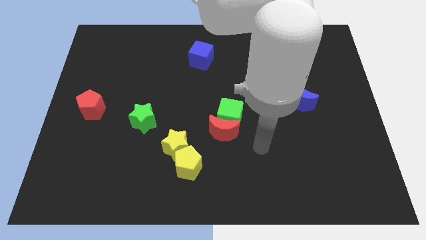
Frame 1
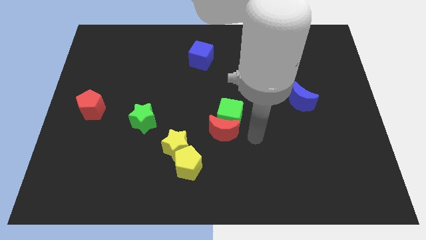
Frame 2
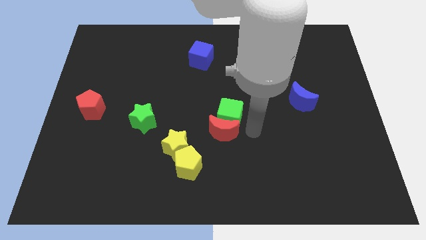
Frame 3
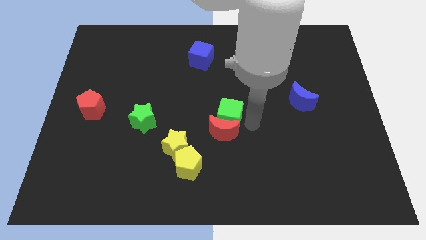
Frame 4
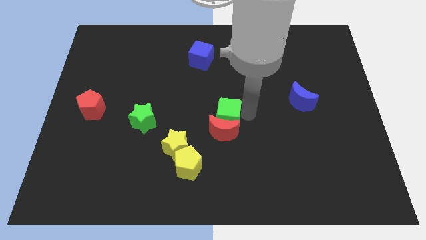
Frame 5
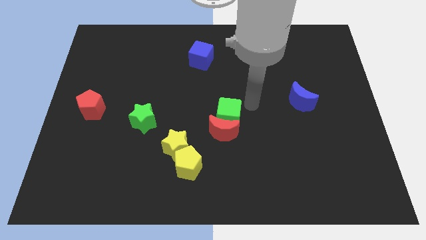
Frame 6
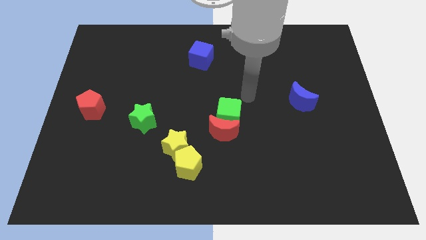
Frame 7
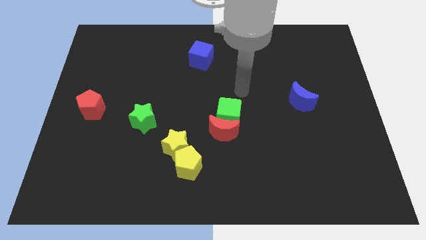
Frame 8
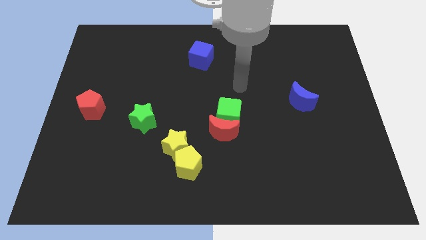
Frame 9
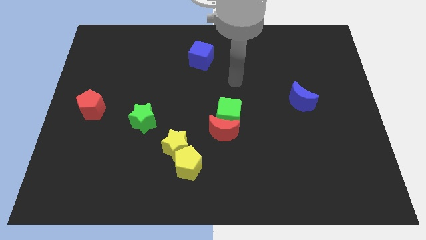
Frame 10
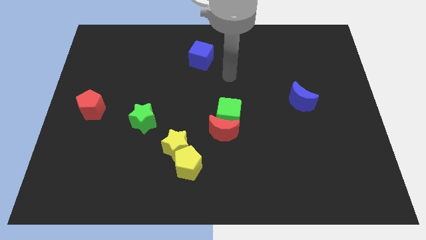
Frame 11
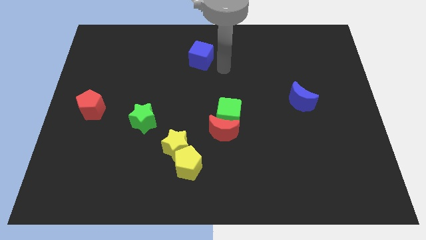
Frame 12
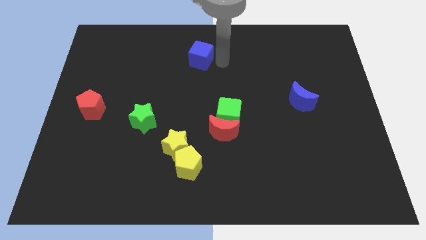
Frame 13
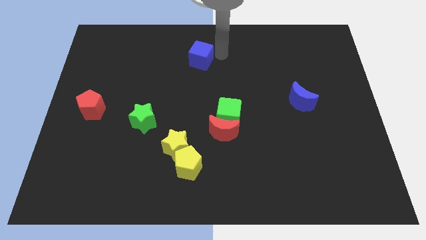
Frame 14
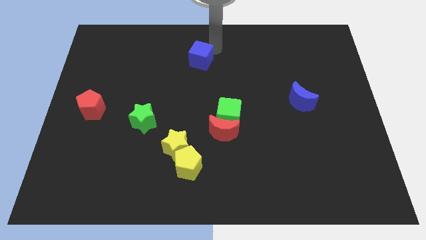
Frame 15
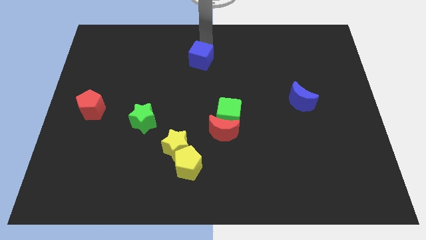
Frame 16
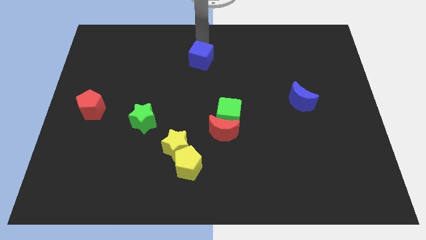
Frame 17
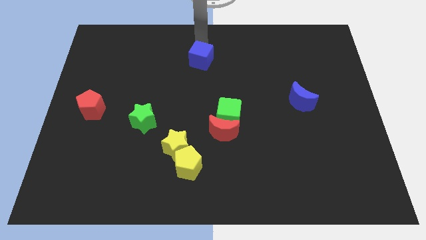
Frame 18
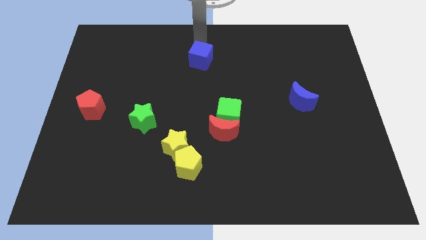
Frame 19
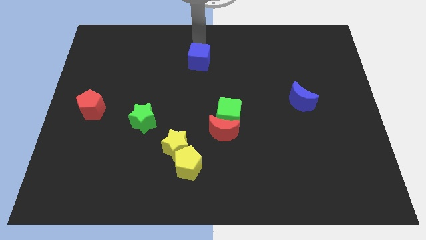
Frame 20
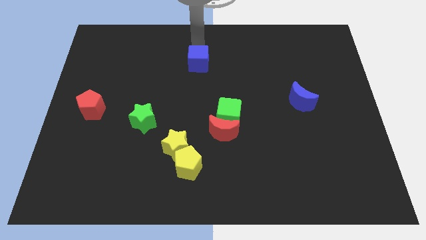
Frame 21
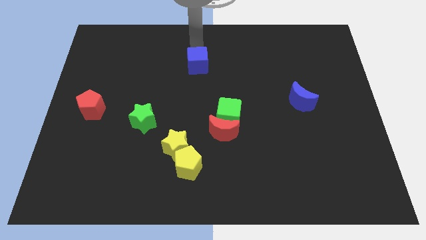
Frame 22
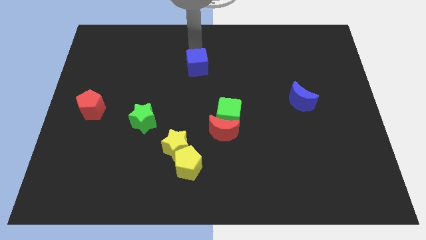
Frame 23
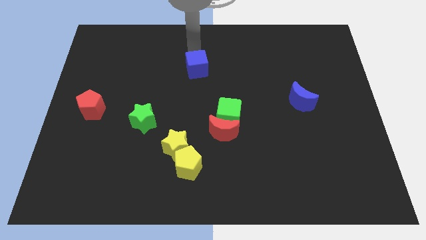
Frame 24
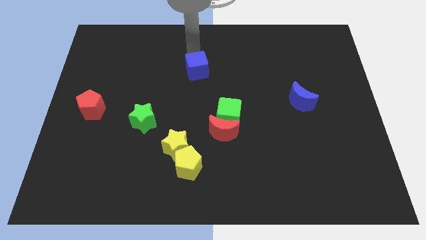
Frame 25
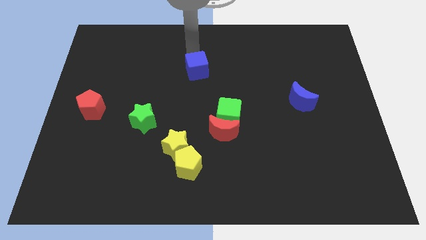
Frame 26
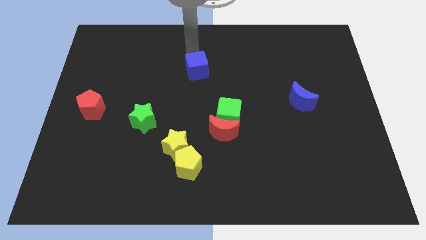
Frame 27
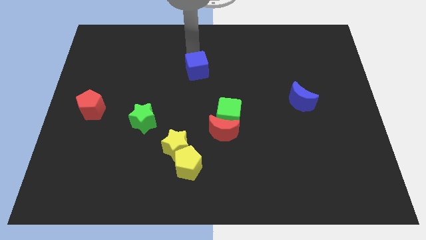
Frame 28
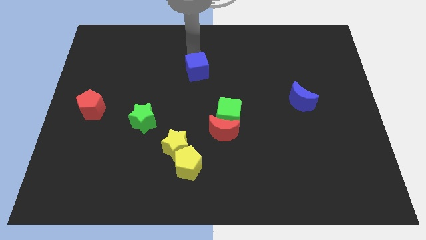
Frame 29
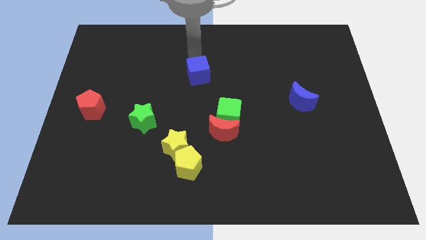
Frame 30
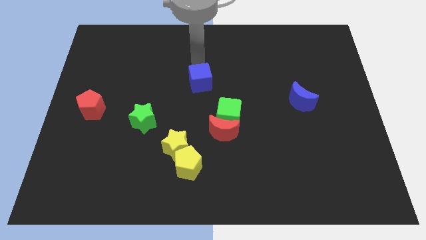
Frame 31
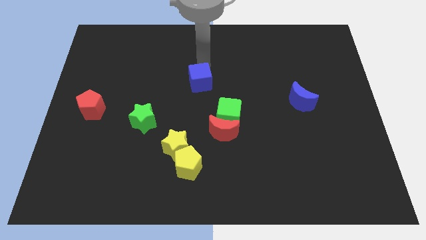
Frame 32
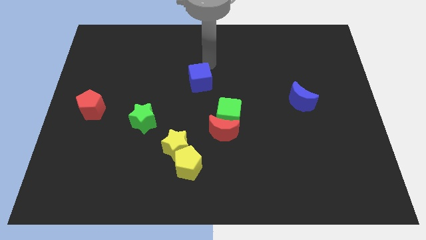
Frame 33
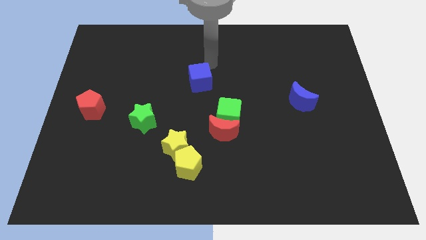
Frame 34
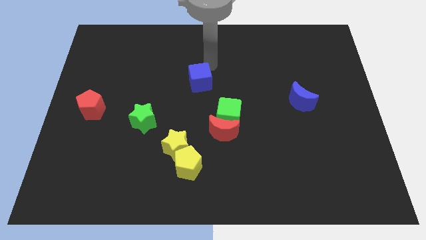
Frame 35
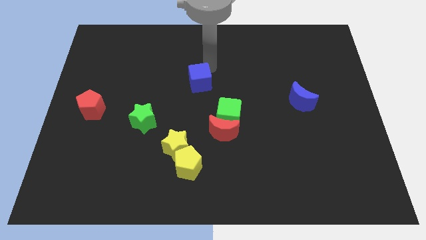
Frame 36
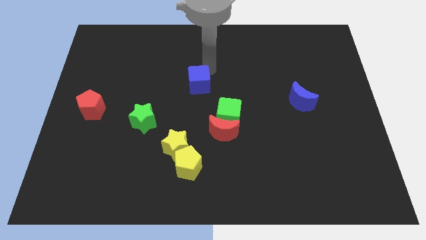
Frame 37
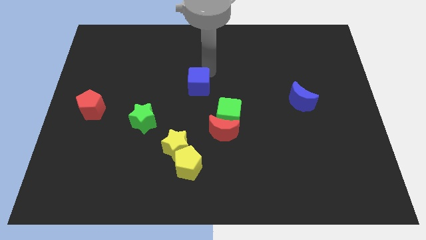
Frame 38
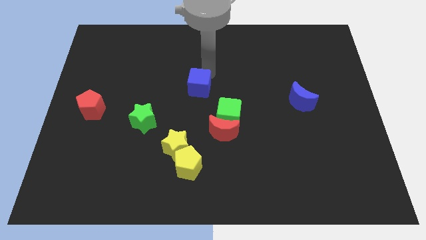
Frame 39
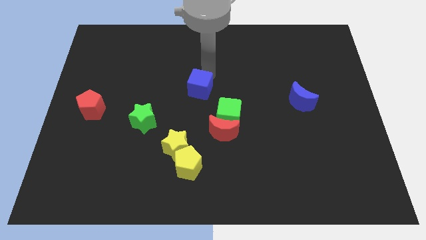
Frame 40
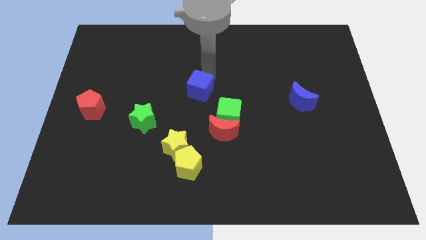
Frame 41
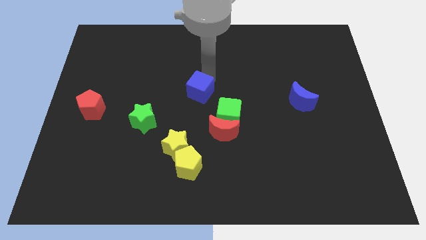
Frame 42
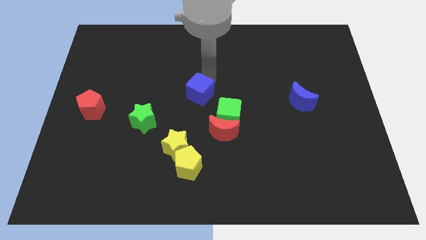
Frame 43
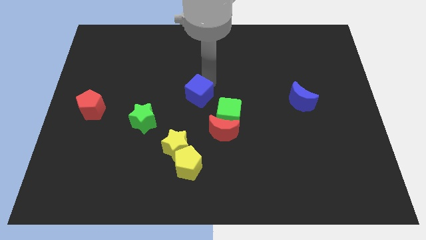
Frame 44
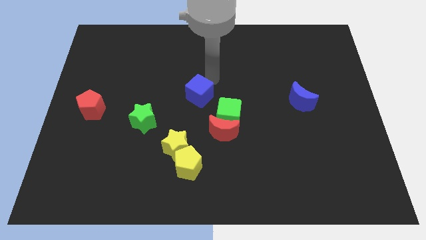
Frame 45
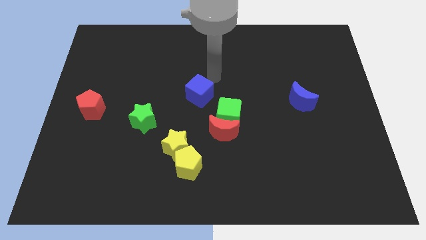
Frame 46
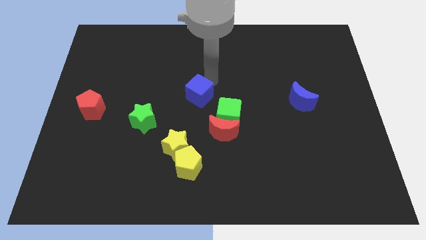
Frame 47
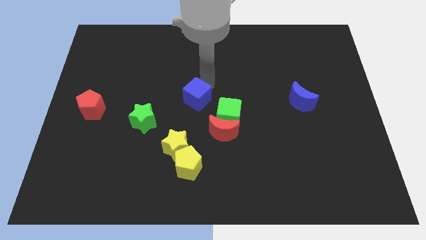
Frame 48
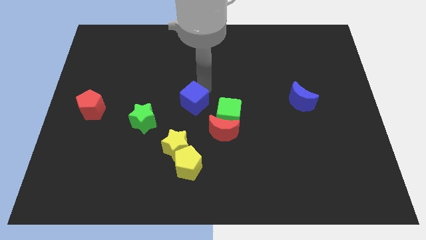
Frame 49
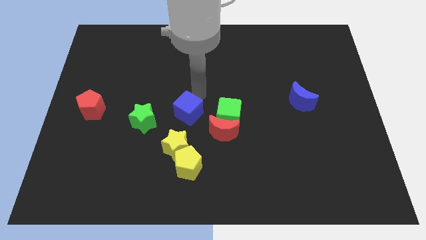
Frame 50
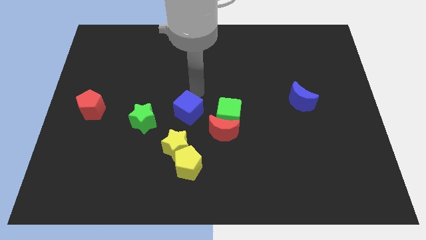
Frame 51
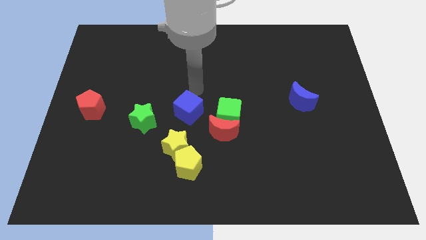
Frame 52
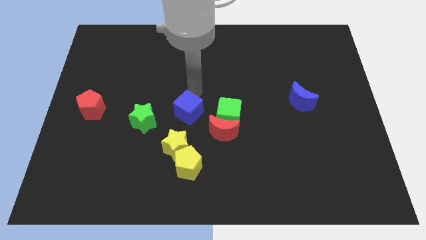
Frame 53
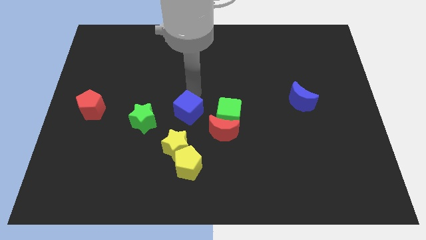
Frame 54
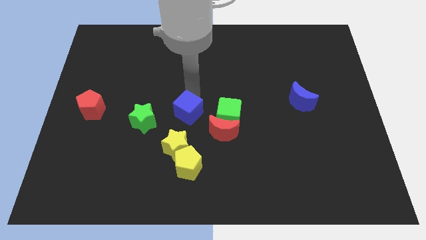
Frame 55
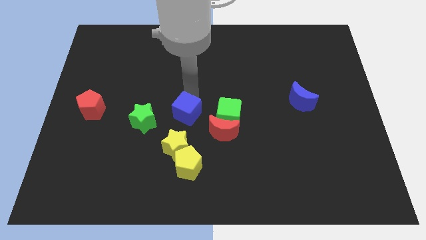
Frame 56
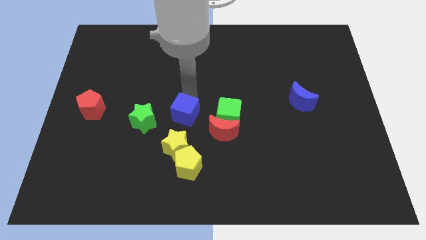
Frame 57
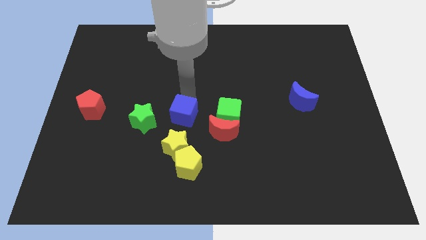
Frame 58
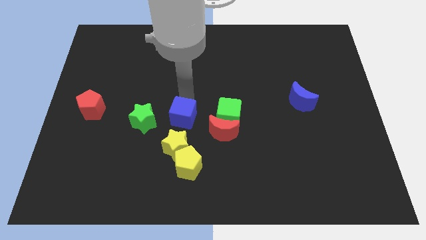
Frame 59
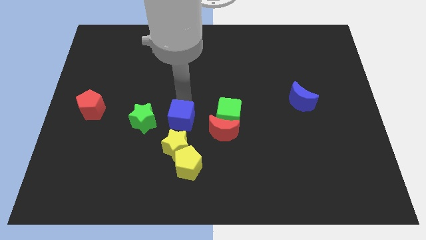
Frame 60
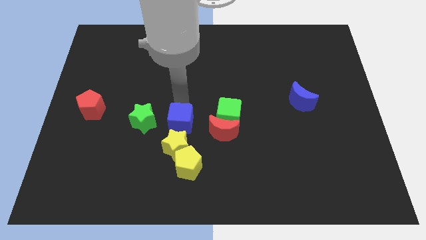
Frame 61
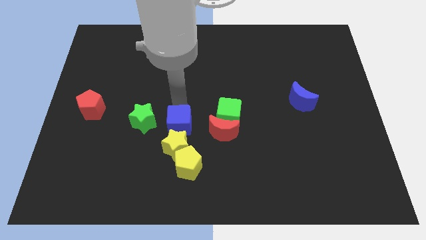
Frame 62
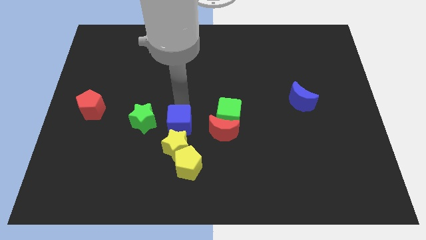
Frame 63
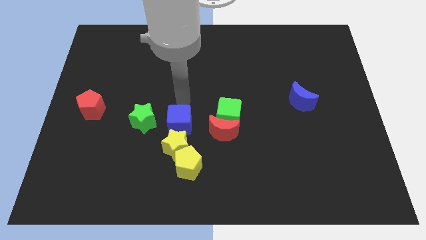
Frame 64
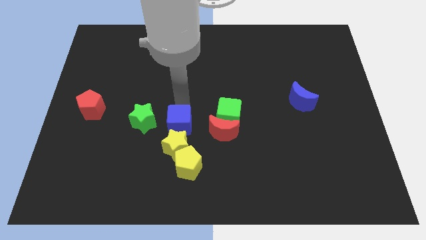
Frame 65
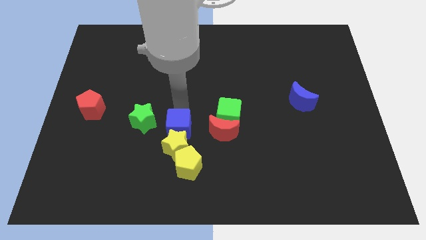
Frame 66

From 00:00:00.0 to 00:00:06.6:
slide the blue cube towards the yellow star

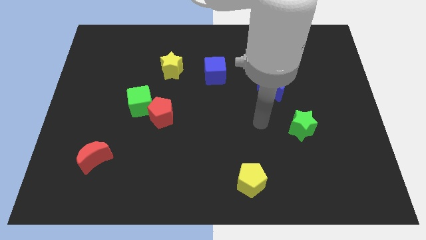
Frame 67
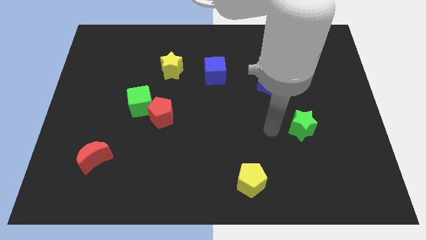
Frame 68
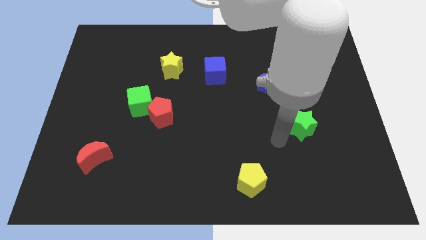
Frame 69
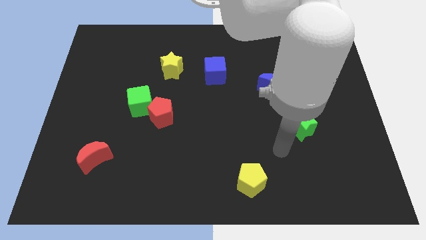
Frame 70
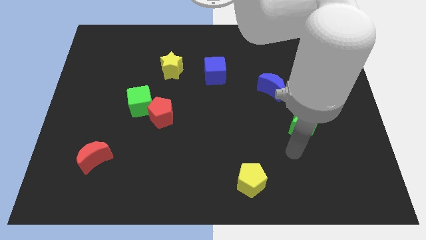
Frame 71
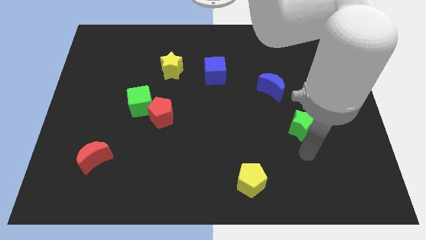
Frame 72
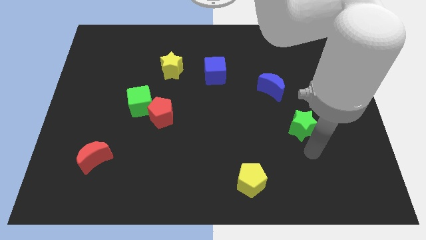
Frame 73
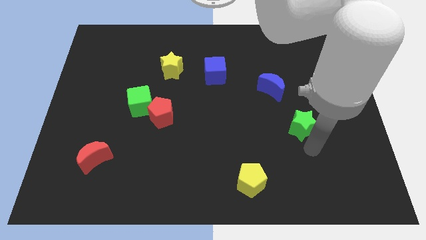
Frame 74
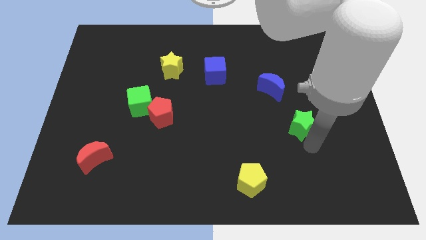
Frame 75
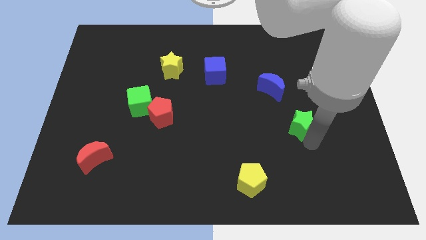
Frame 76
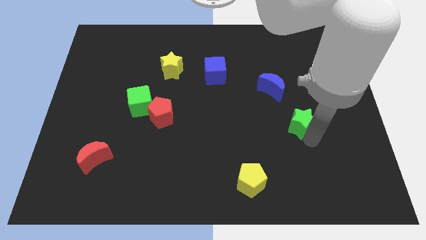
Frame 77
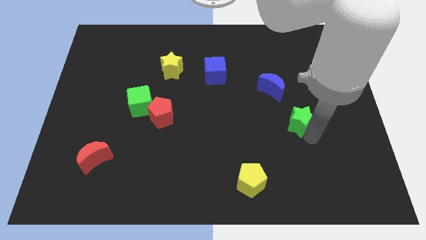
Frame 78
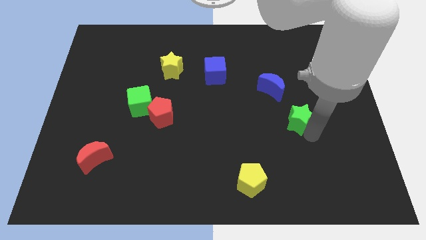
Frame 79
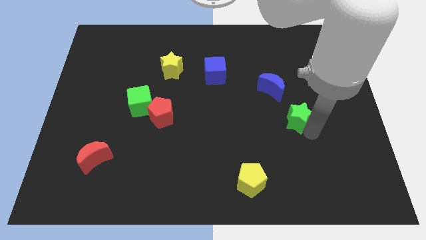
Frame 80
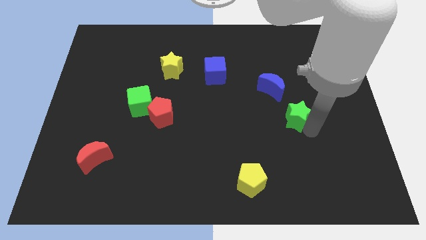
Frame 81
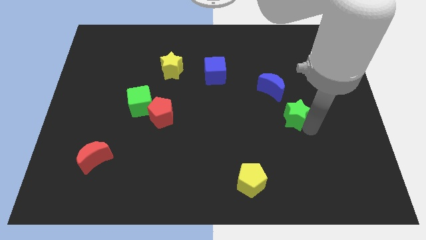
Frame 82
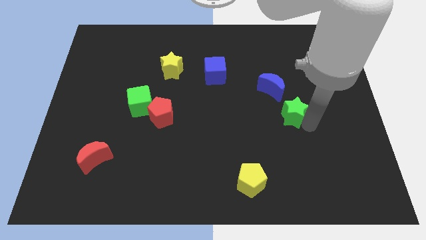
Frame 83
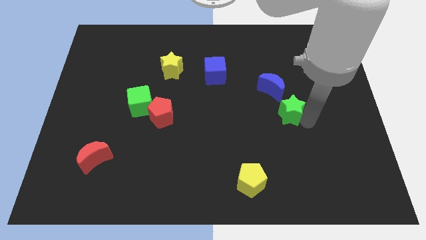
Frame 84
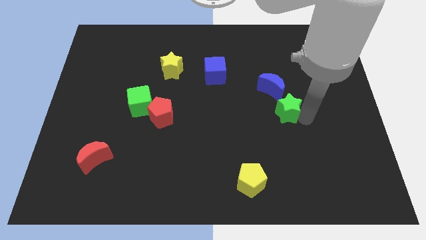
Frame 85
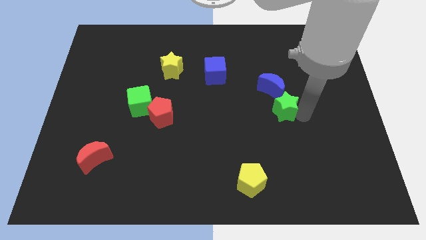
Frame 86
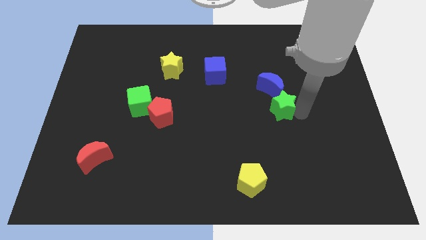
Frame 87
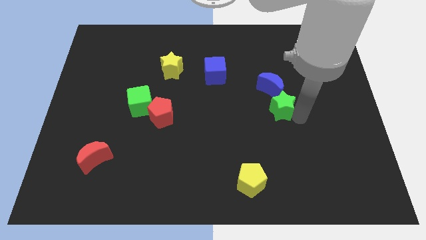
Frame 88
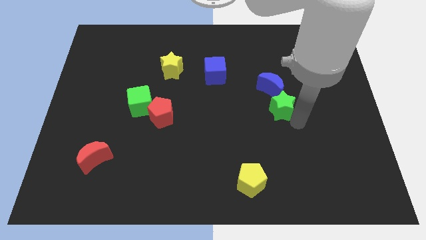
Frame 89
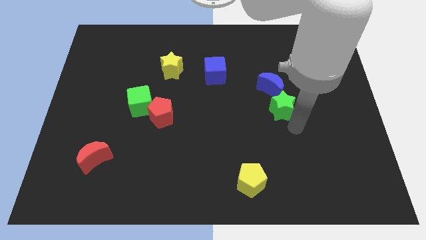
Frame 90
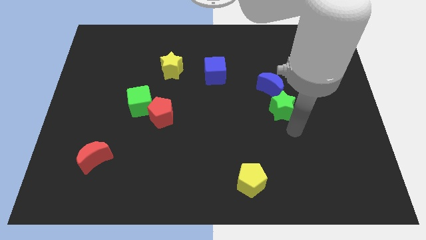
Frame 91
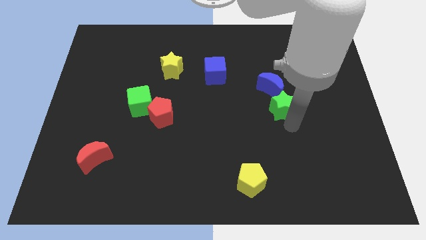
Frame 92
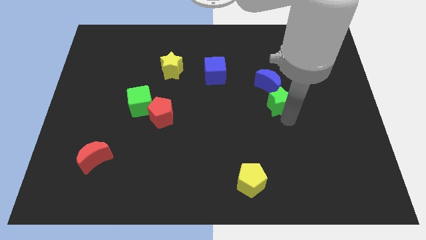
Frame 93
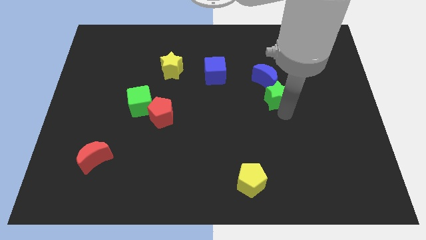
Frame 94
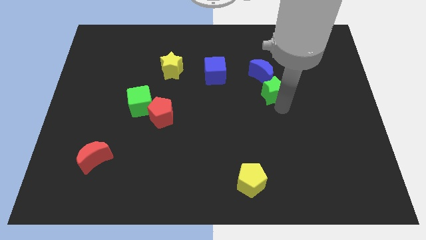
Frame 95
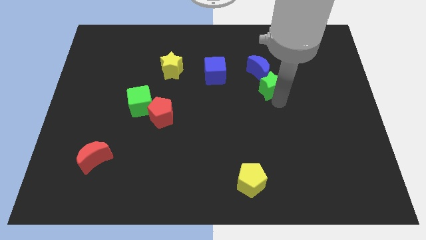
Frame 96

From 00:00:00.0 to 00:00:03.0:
move the green star to the blue moon
